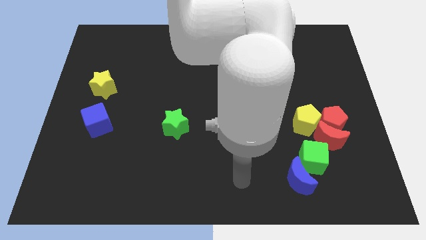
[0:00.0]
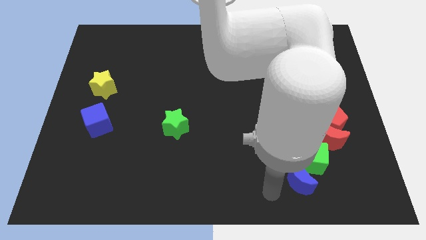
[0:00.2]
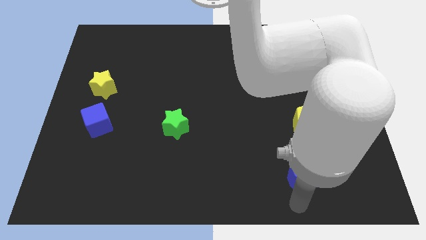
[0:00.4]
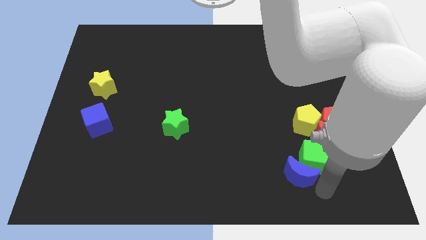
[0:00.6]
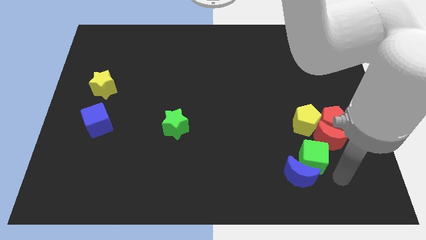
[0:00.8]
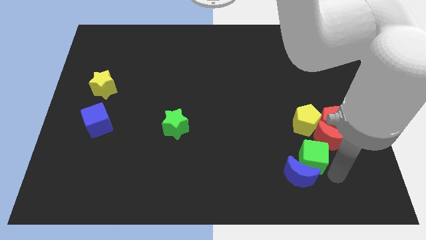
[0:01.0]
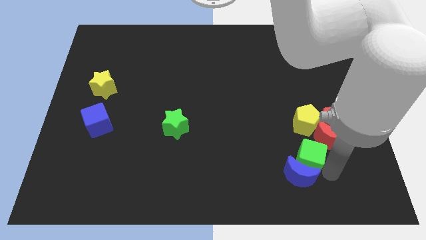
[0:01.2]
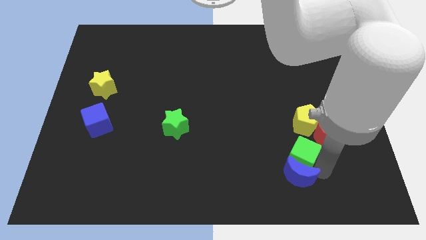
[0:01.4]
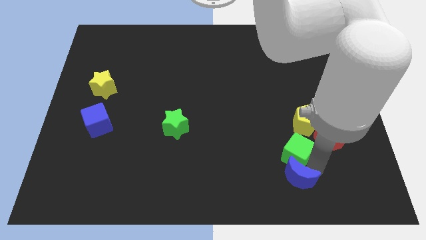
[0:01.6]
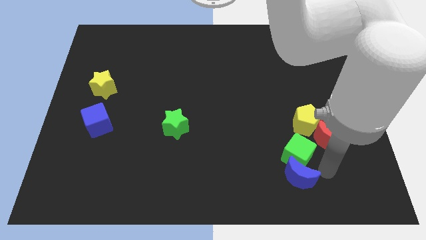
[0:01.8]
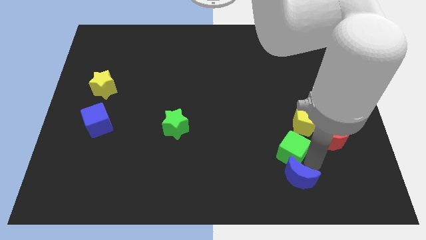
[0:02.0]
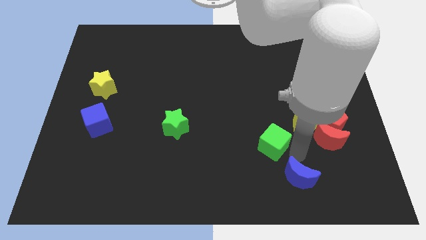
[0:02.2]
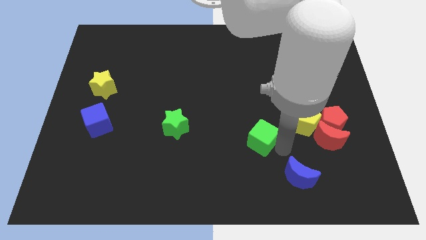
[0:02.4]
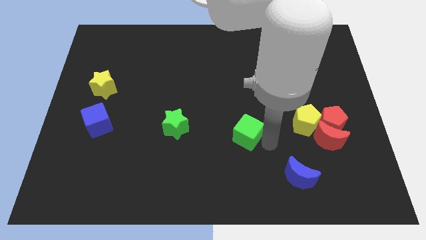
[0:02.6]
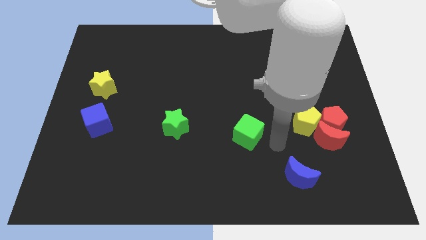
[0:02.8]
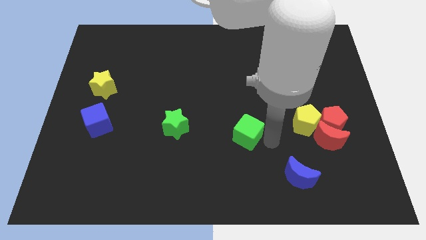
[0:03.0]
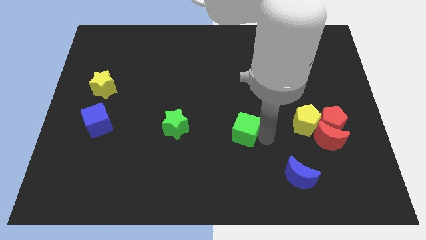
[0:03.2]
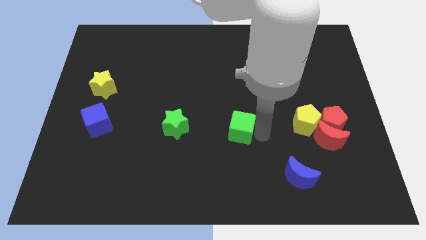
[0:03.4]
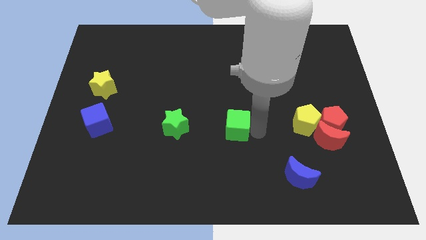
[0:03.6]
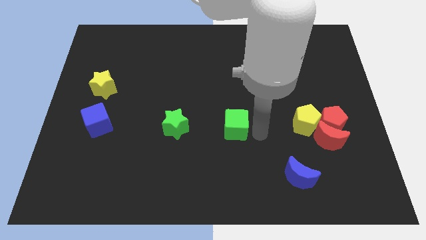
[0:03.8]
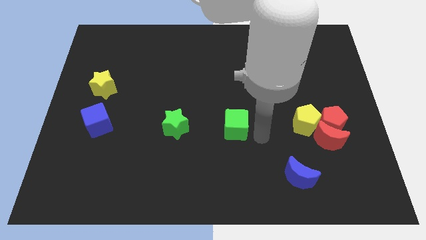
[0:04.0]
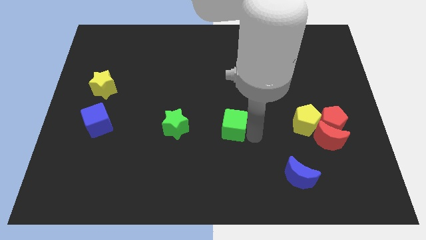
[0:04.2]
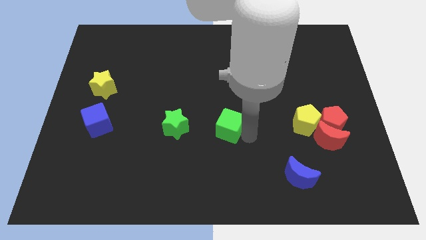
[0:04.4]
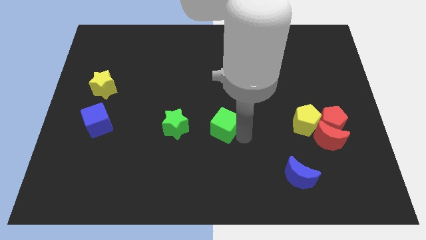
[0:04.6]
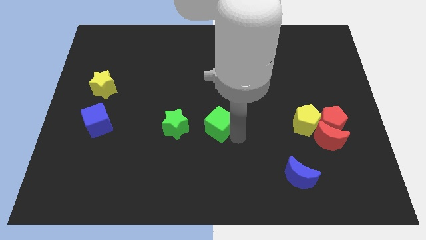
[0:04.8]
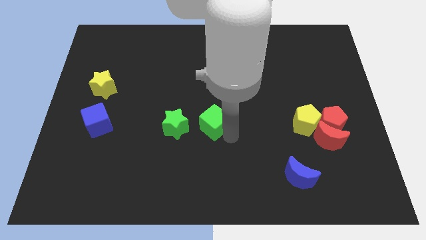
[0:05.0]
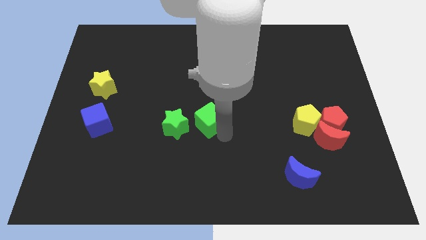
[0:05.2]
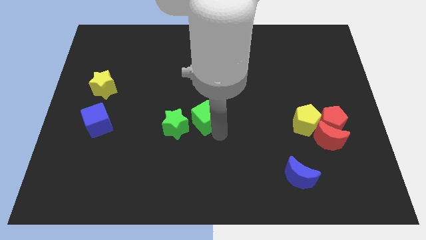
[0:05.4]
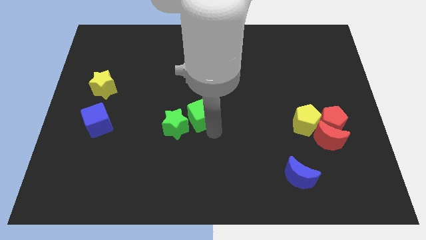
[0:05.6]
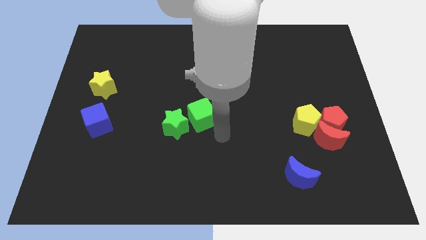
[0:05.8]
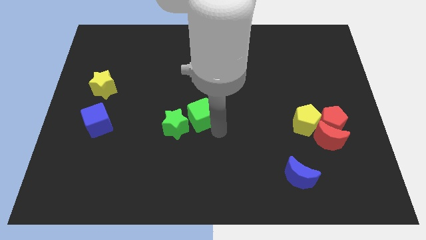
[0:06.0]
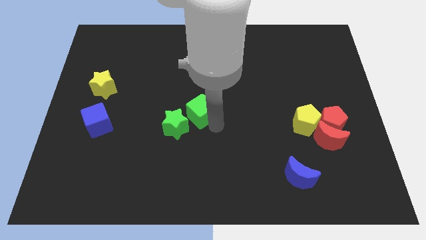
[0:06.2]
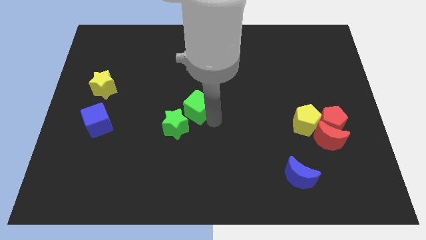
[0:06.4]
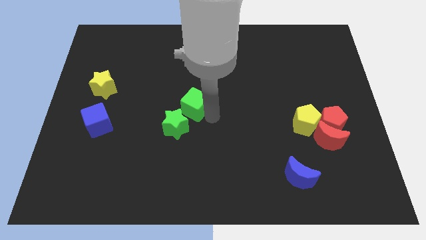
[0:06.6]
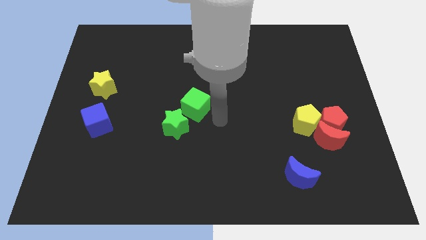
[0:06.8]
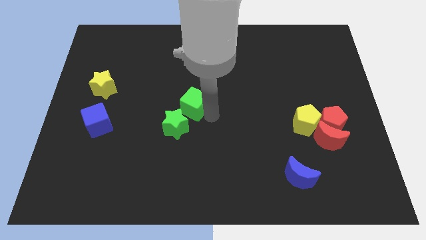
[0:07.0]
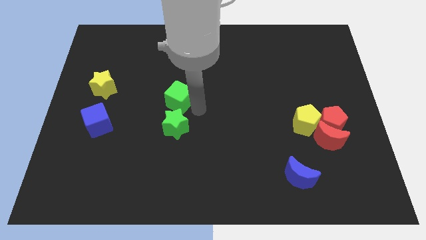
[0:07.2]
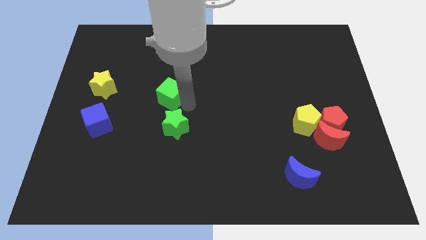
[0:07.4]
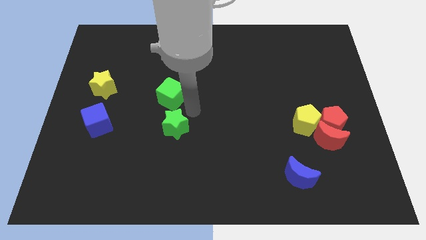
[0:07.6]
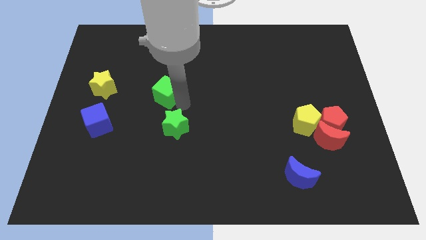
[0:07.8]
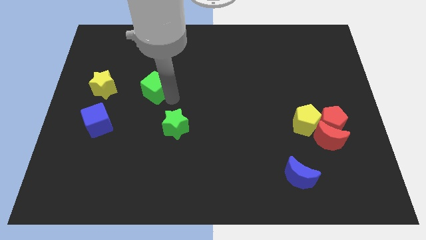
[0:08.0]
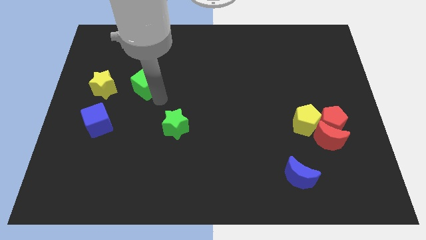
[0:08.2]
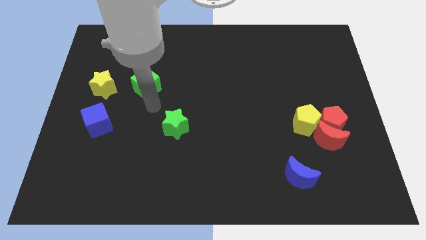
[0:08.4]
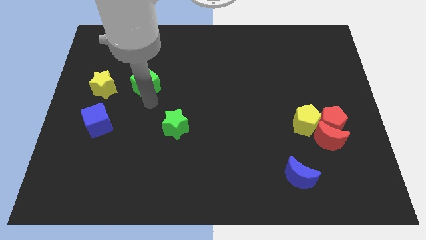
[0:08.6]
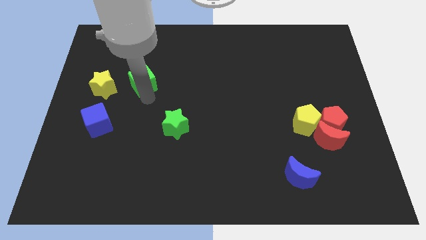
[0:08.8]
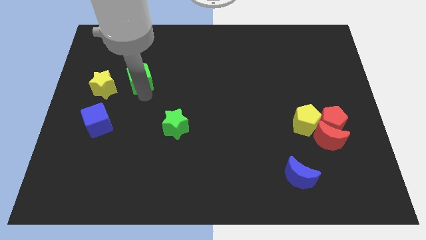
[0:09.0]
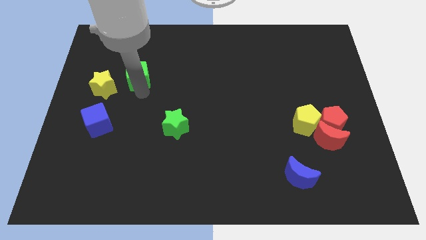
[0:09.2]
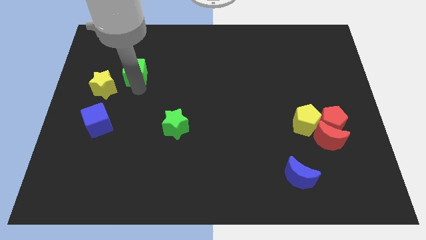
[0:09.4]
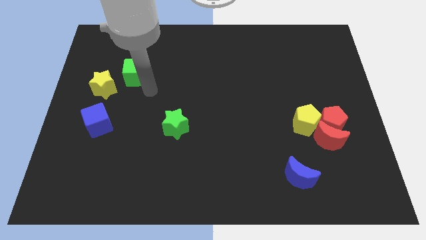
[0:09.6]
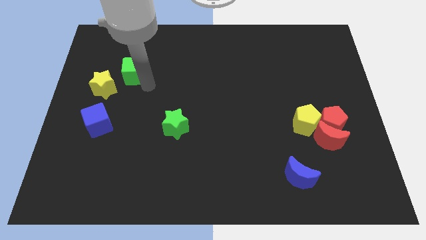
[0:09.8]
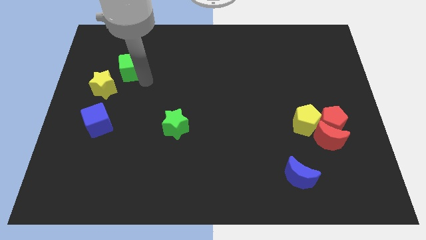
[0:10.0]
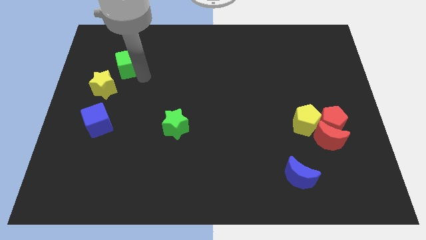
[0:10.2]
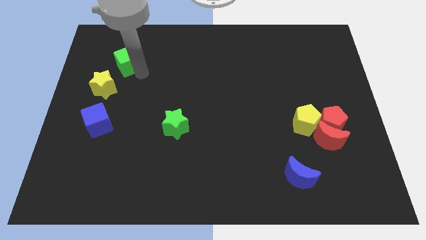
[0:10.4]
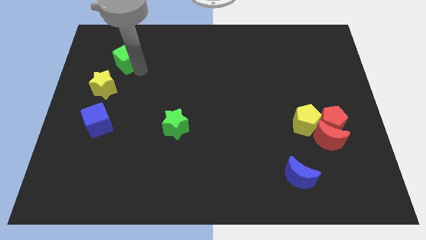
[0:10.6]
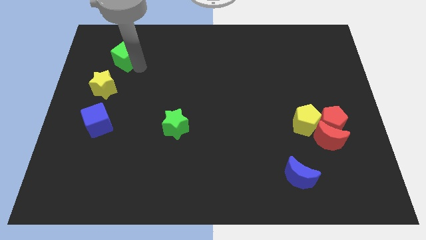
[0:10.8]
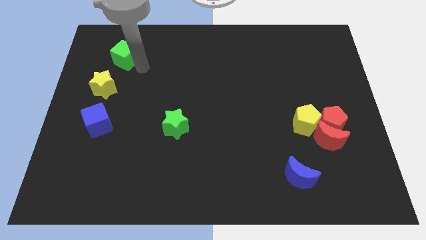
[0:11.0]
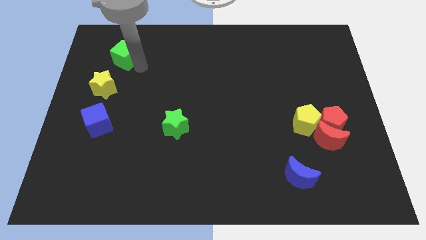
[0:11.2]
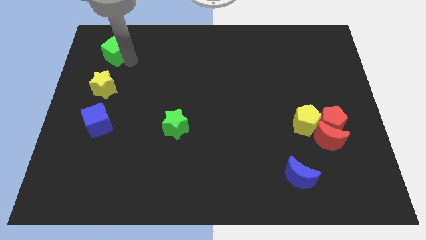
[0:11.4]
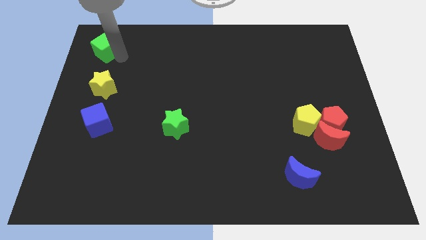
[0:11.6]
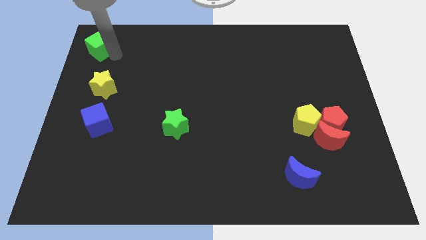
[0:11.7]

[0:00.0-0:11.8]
put the green cube to the top left of the board
